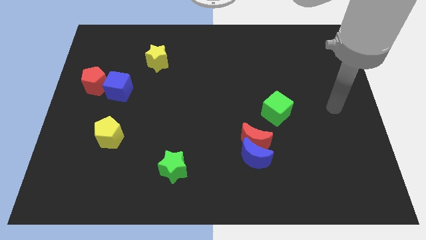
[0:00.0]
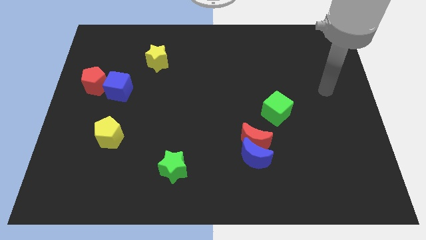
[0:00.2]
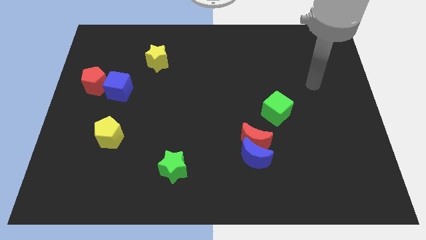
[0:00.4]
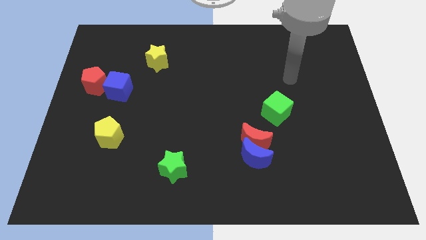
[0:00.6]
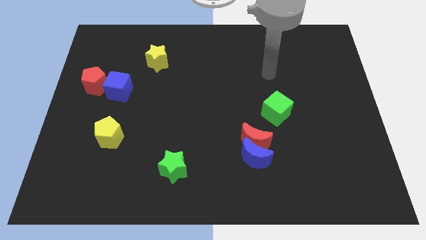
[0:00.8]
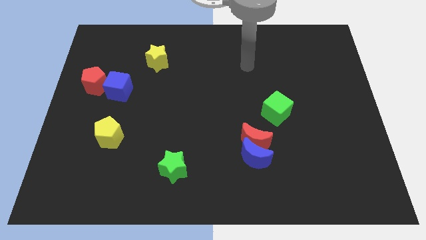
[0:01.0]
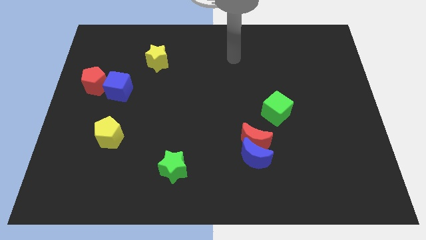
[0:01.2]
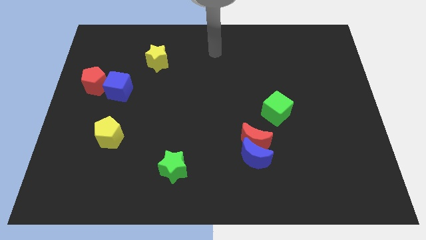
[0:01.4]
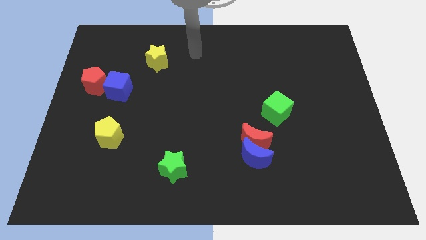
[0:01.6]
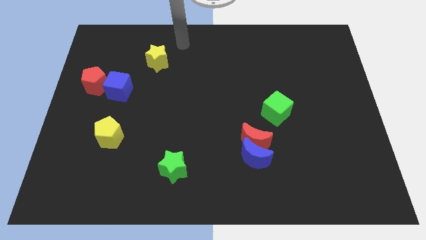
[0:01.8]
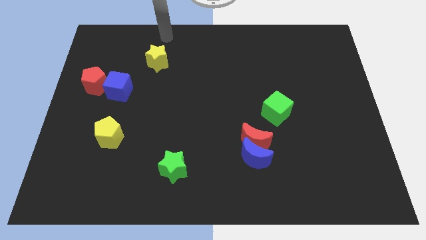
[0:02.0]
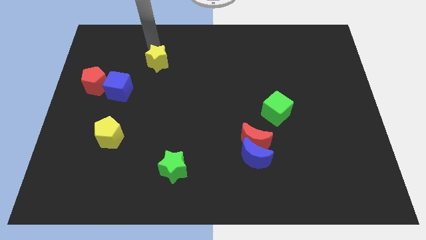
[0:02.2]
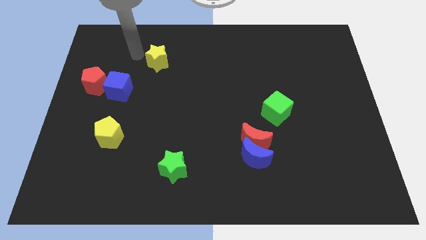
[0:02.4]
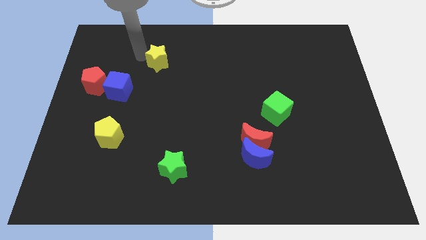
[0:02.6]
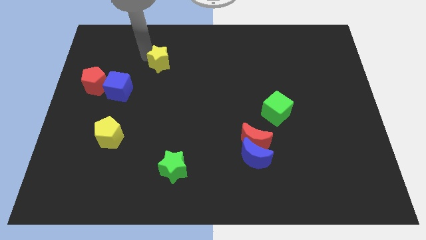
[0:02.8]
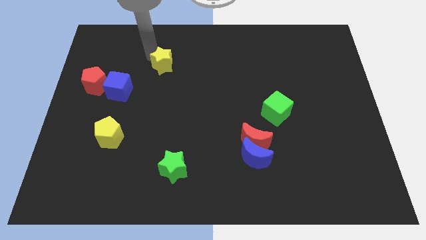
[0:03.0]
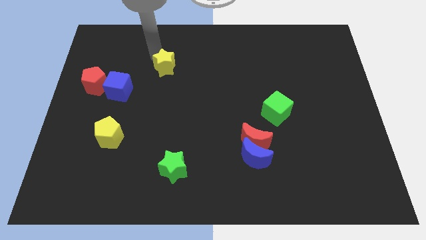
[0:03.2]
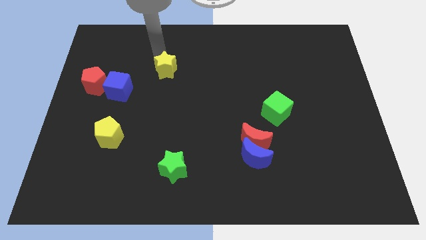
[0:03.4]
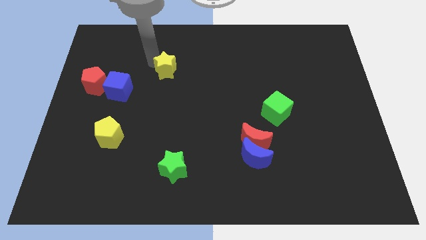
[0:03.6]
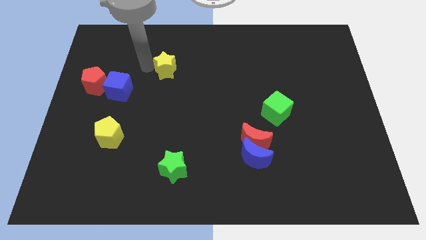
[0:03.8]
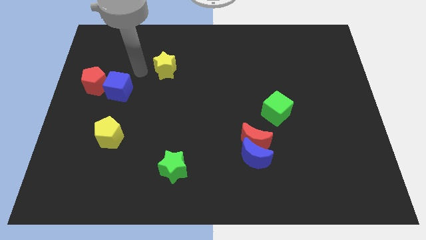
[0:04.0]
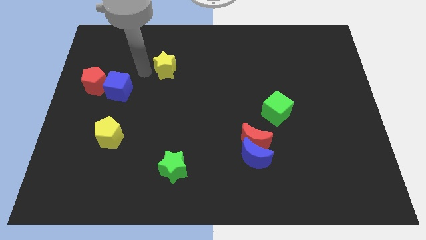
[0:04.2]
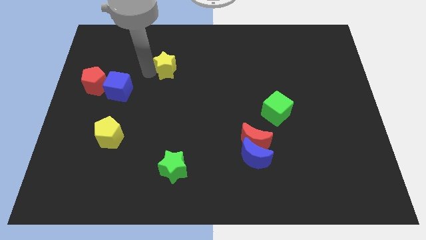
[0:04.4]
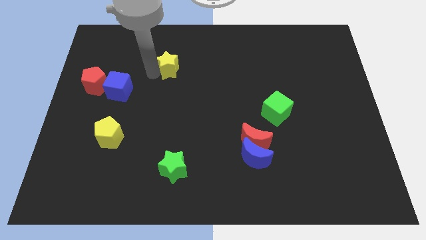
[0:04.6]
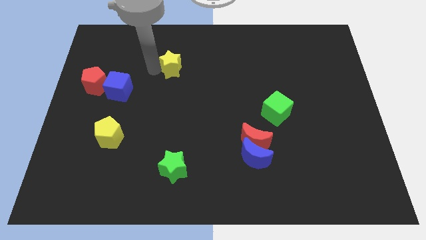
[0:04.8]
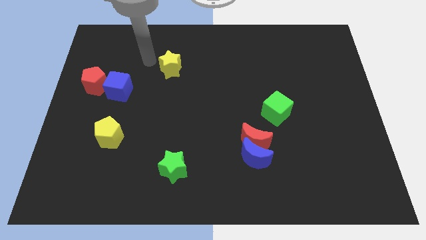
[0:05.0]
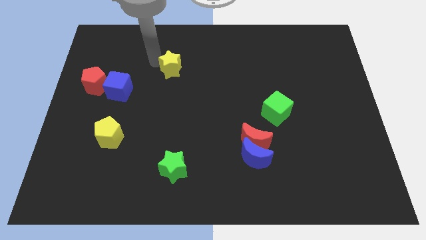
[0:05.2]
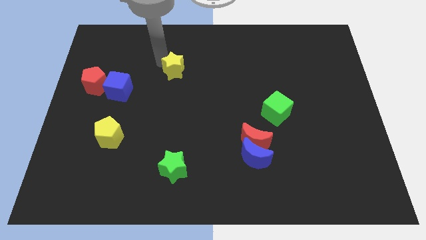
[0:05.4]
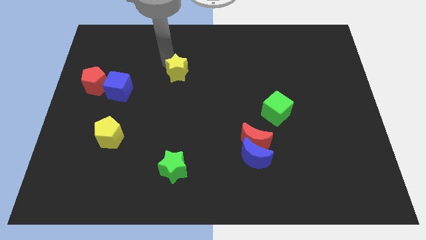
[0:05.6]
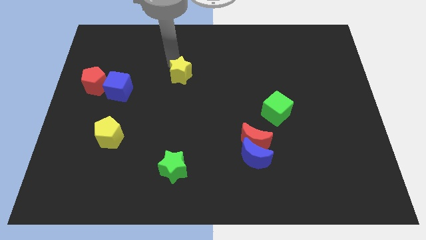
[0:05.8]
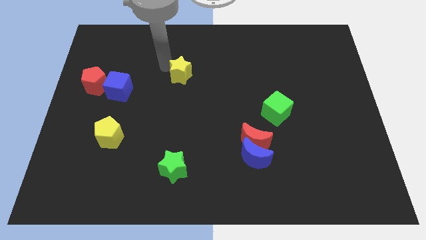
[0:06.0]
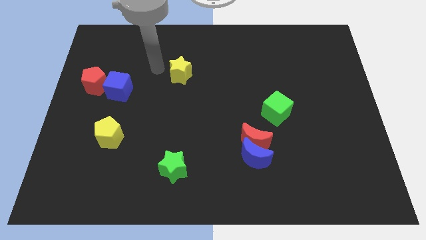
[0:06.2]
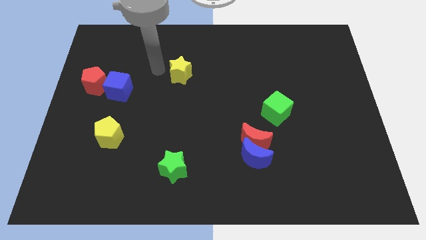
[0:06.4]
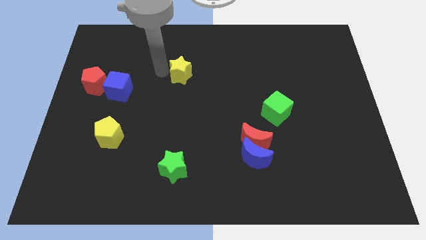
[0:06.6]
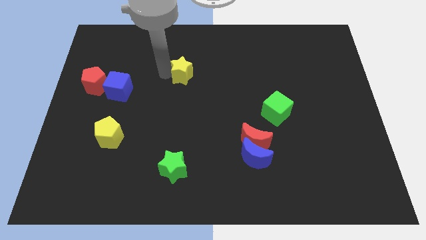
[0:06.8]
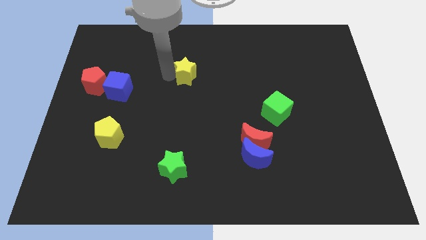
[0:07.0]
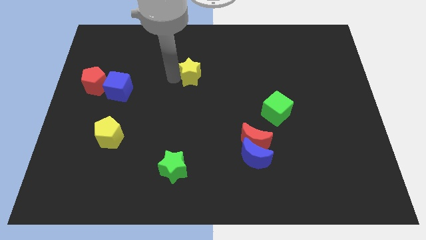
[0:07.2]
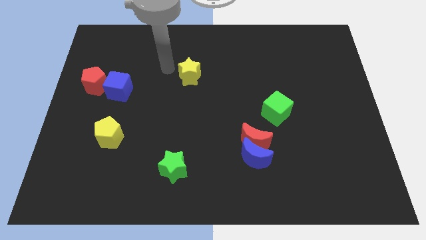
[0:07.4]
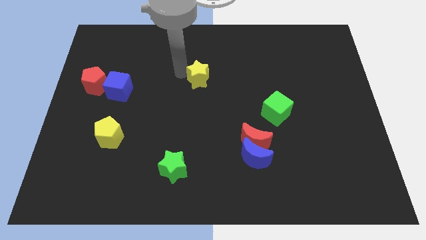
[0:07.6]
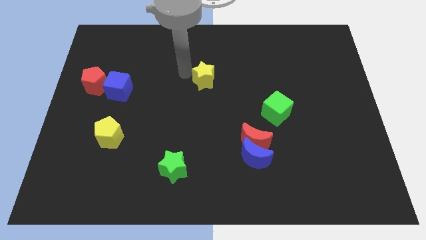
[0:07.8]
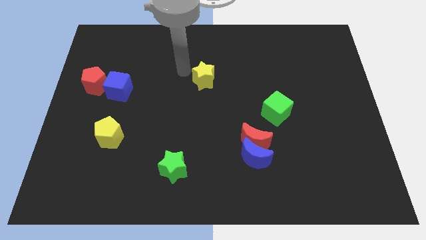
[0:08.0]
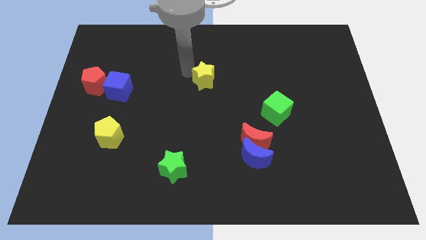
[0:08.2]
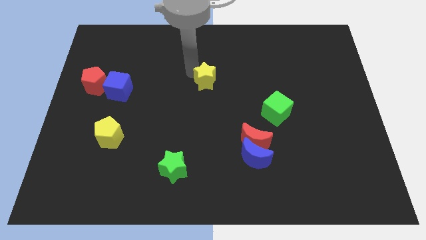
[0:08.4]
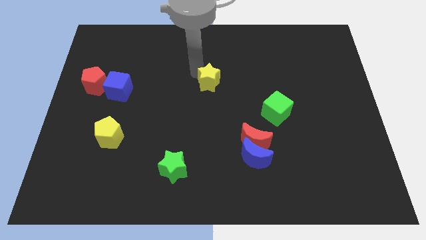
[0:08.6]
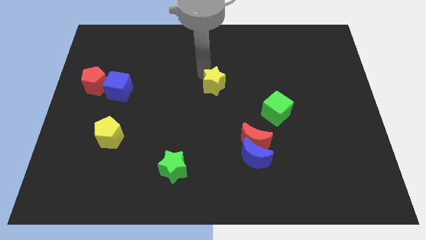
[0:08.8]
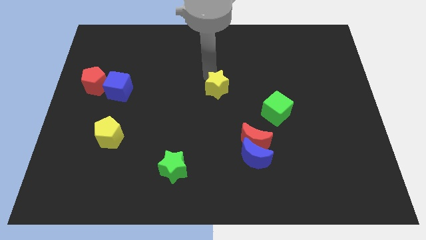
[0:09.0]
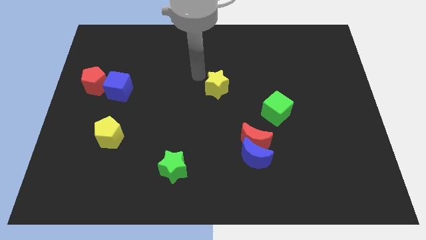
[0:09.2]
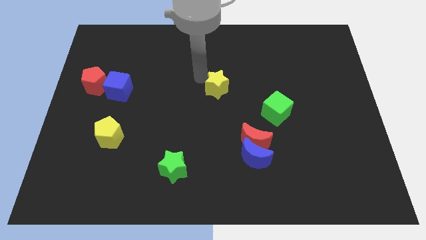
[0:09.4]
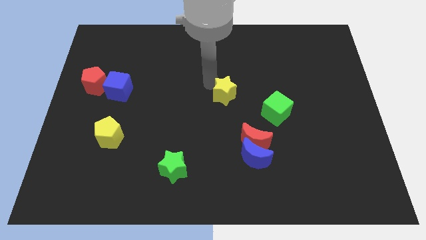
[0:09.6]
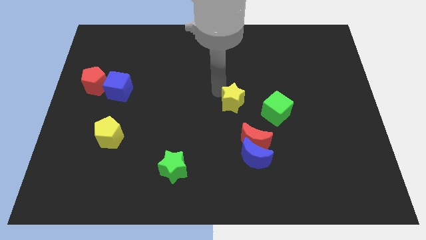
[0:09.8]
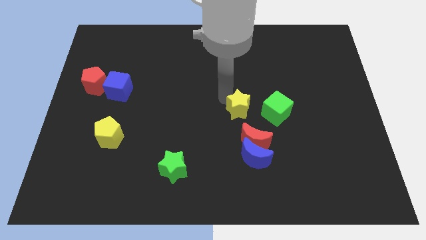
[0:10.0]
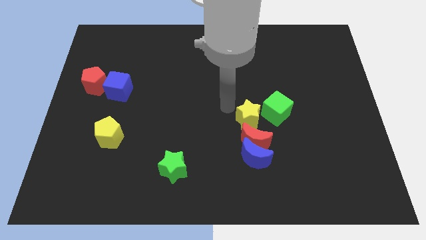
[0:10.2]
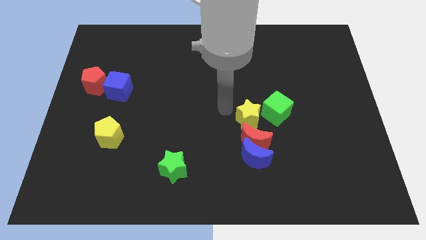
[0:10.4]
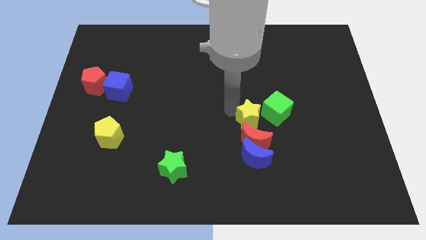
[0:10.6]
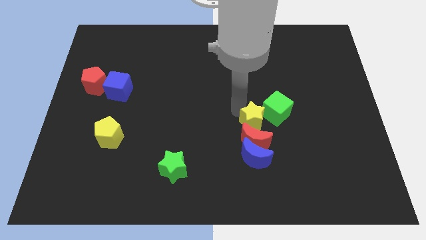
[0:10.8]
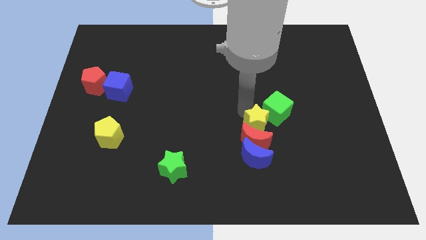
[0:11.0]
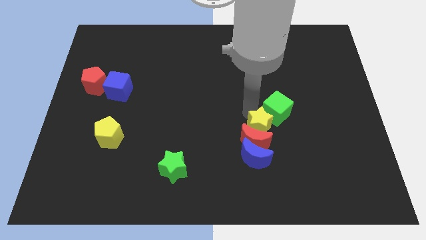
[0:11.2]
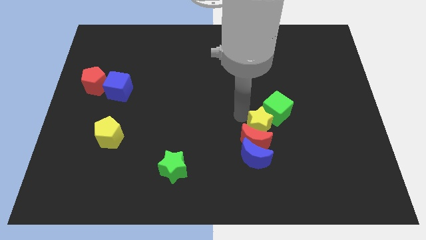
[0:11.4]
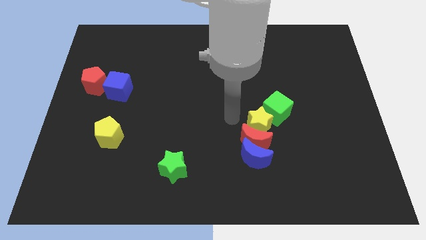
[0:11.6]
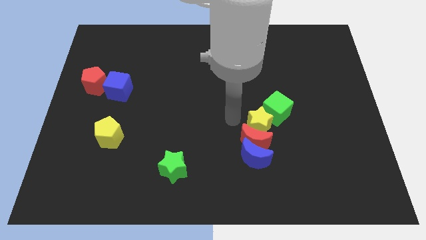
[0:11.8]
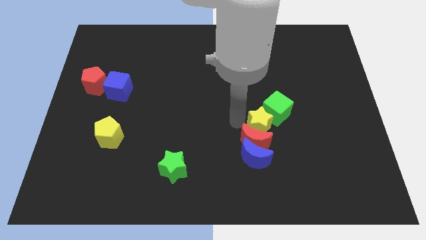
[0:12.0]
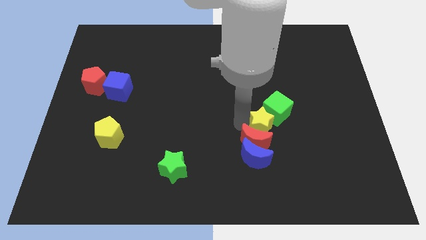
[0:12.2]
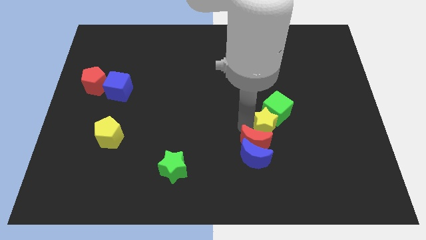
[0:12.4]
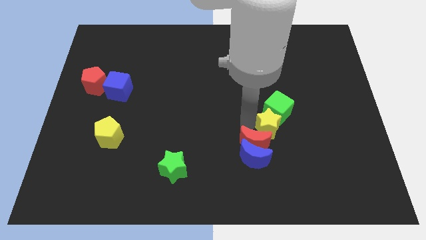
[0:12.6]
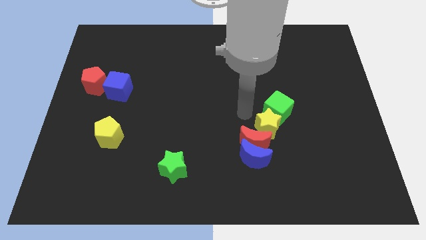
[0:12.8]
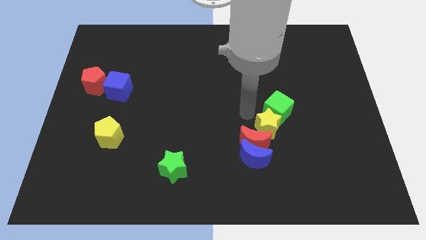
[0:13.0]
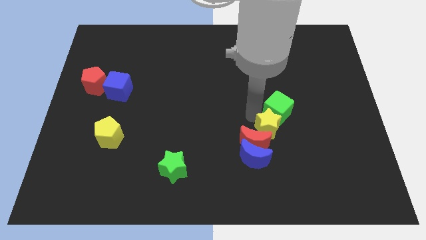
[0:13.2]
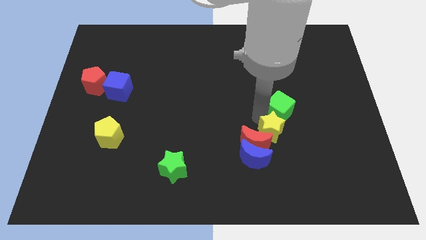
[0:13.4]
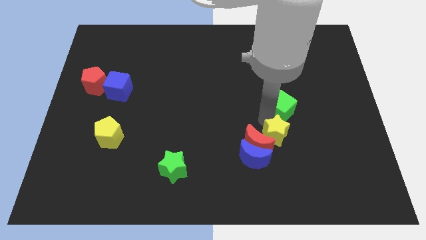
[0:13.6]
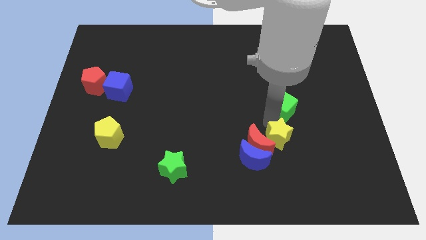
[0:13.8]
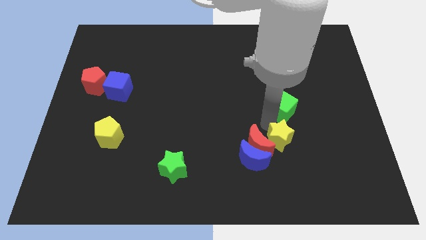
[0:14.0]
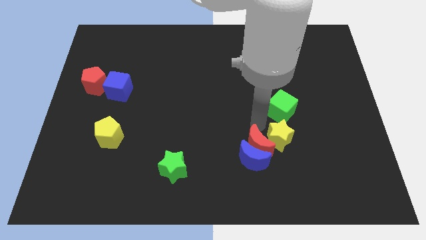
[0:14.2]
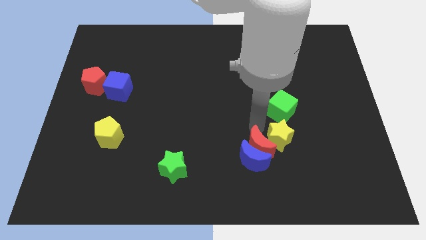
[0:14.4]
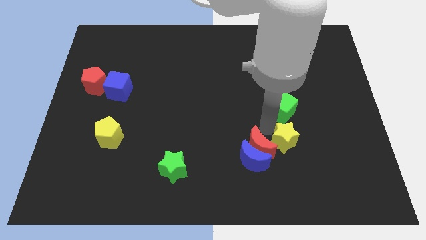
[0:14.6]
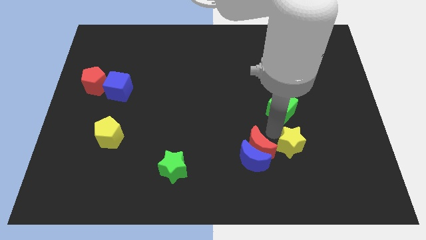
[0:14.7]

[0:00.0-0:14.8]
move the yellow star just right of the blue moon
